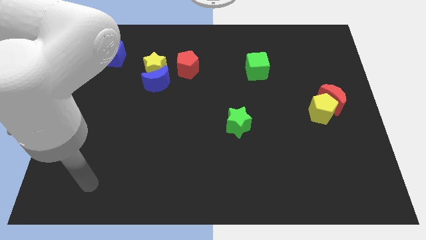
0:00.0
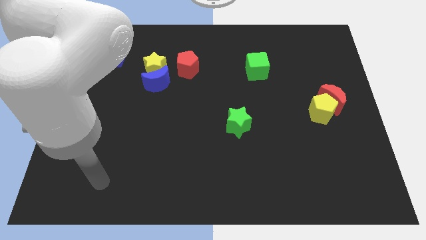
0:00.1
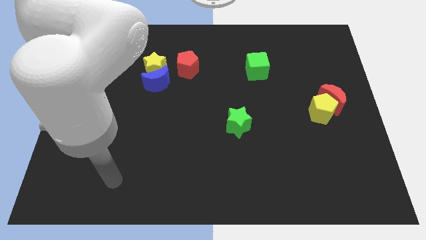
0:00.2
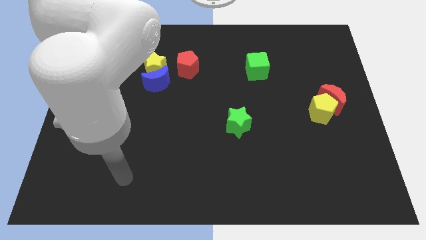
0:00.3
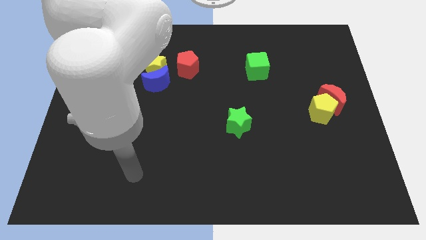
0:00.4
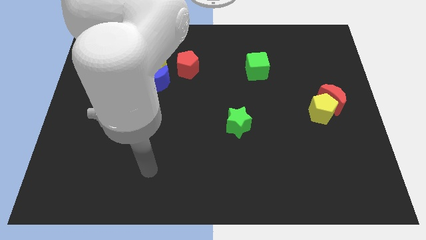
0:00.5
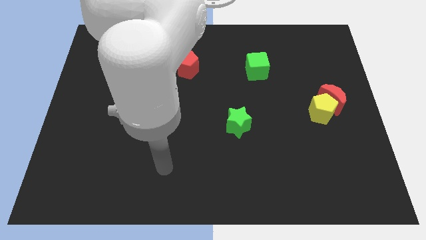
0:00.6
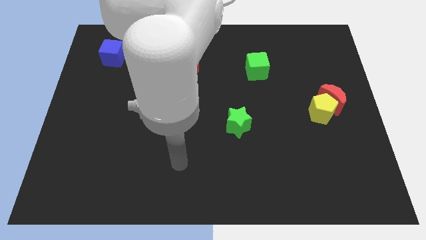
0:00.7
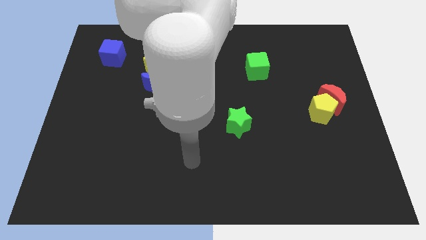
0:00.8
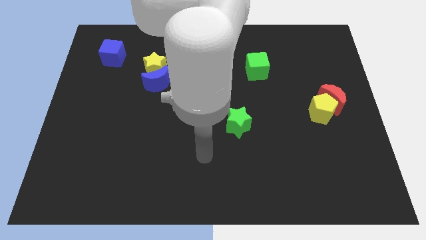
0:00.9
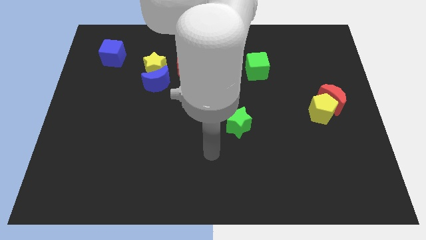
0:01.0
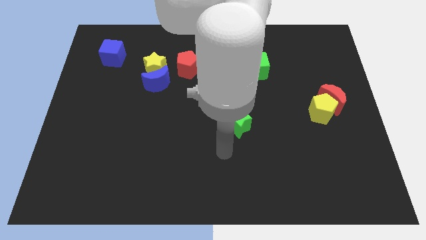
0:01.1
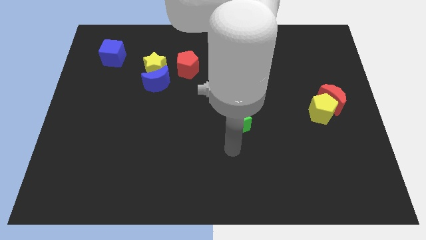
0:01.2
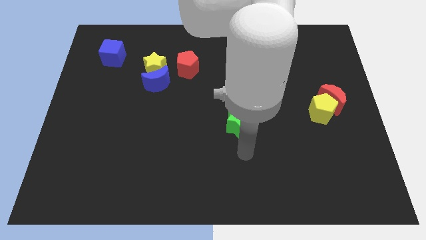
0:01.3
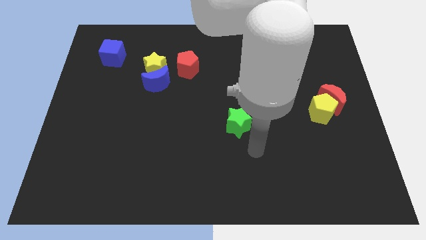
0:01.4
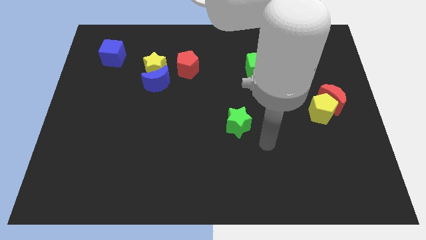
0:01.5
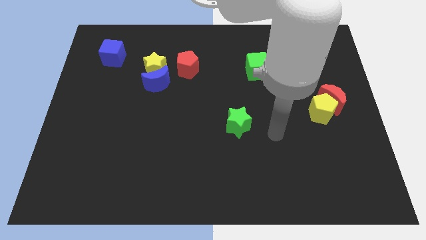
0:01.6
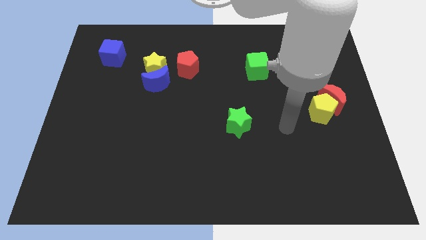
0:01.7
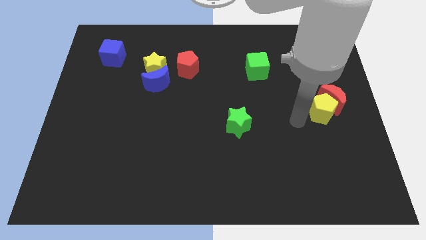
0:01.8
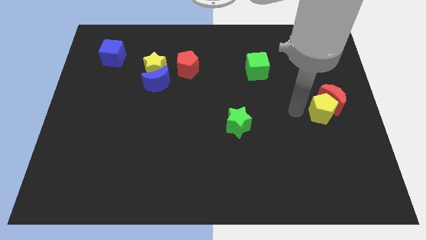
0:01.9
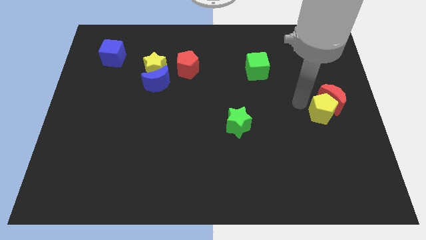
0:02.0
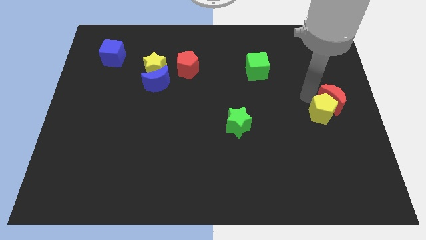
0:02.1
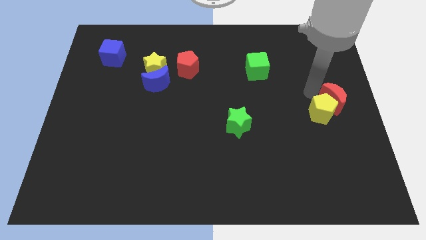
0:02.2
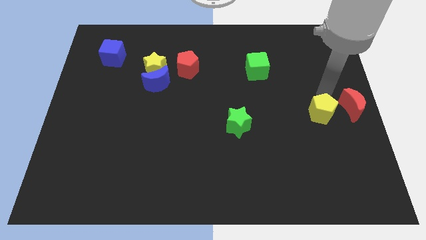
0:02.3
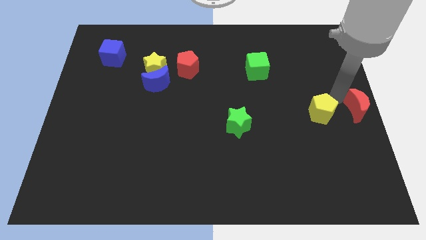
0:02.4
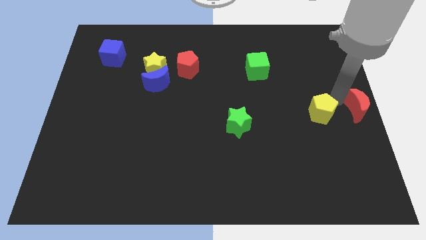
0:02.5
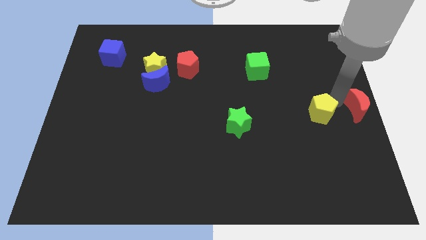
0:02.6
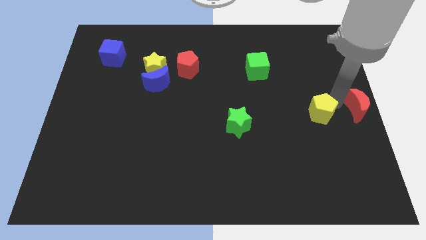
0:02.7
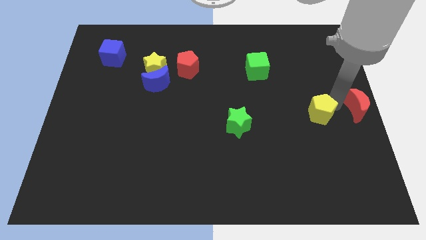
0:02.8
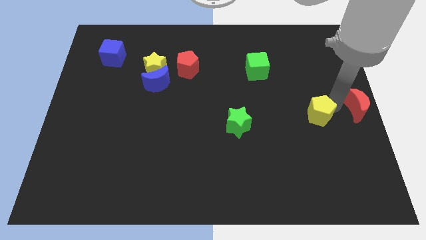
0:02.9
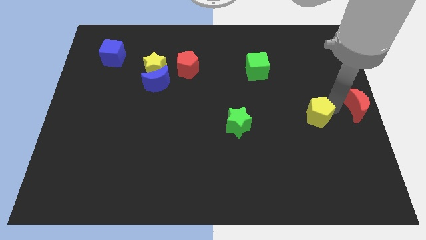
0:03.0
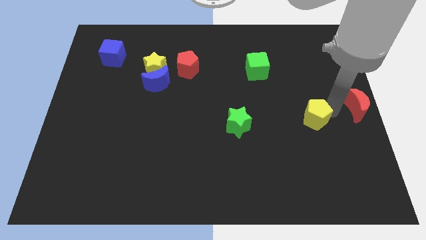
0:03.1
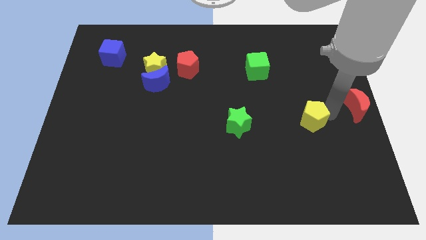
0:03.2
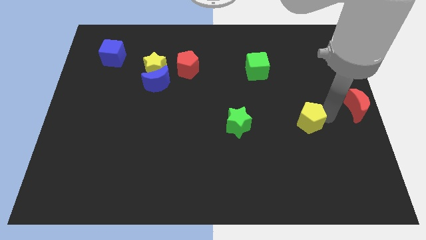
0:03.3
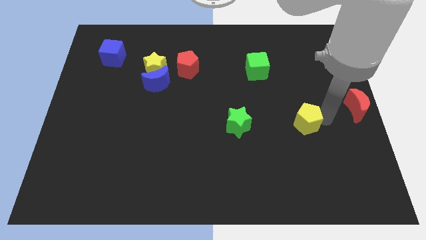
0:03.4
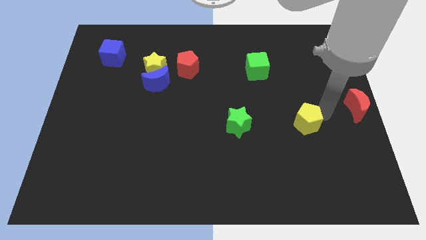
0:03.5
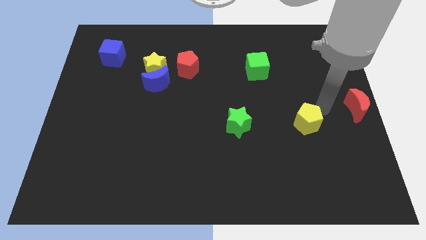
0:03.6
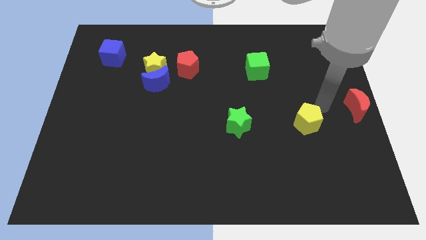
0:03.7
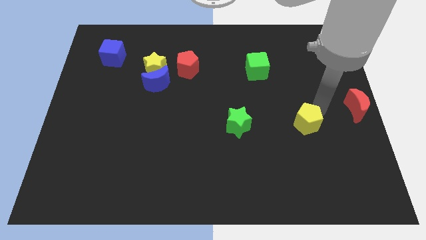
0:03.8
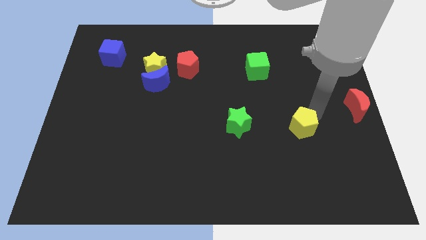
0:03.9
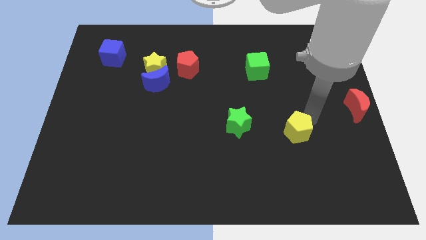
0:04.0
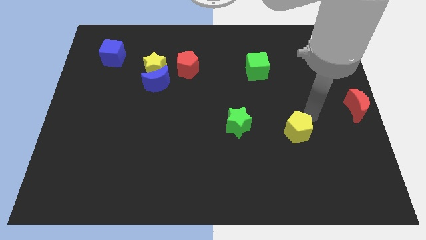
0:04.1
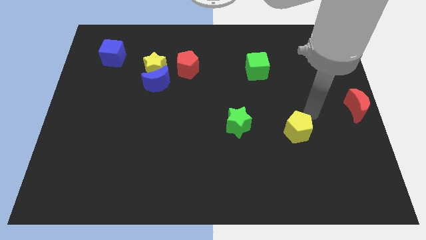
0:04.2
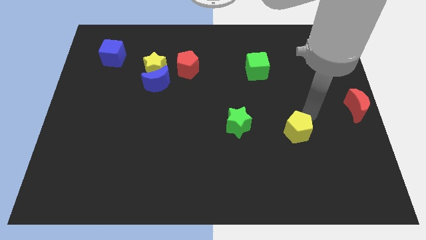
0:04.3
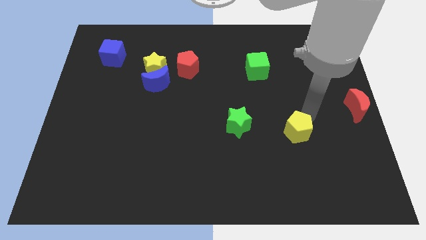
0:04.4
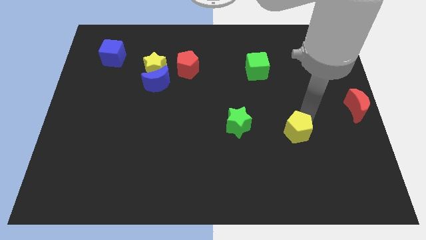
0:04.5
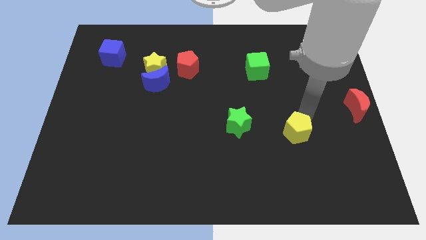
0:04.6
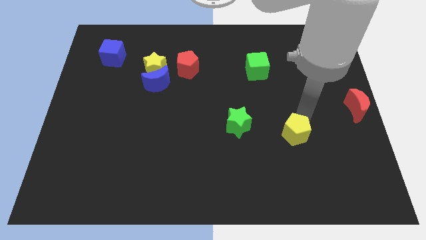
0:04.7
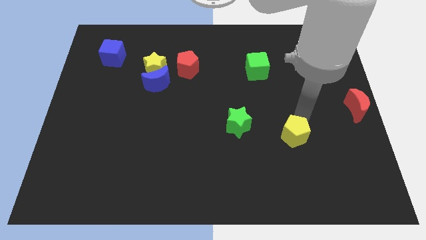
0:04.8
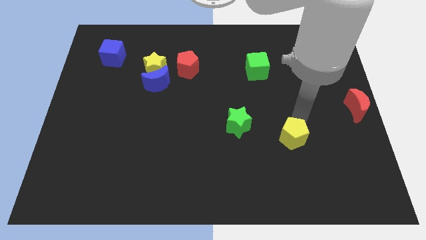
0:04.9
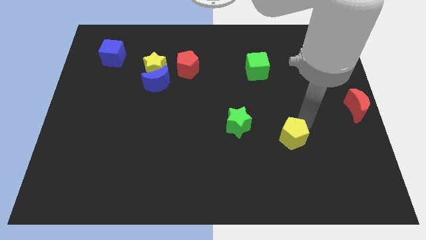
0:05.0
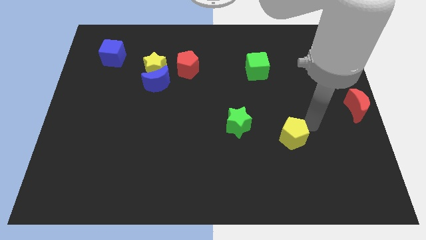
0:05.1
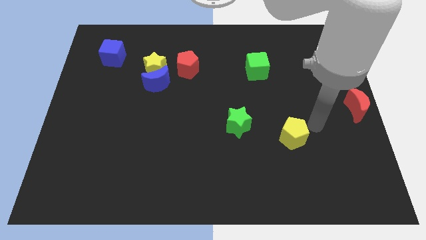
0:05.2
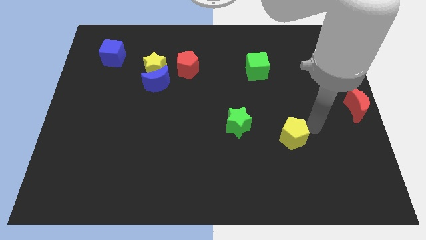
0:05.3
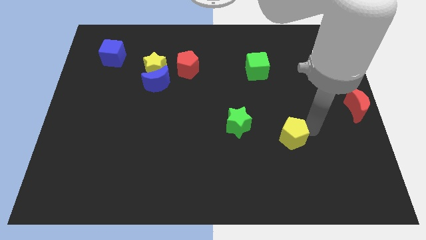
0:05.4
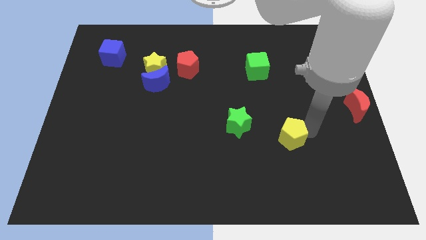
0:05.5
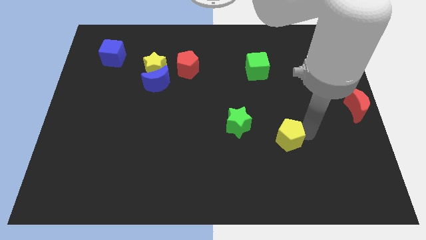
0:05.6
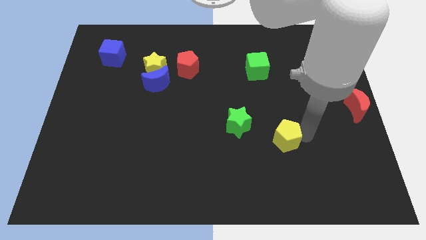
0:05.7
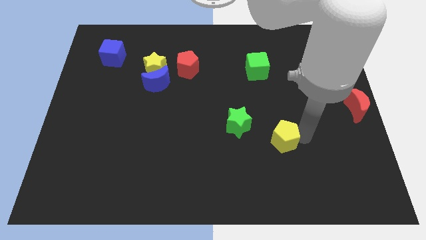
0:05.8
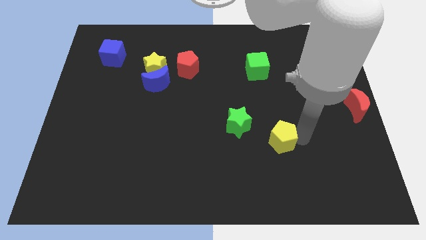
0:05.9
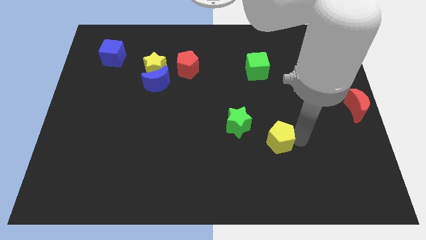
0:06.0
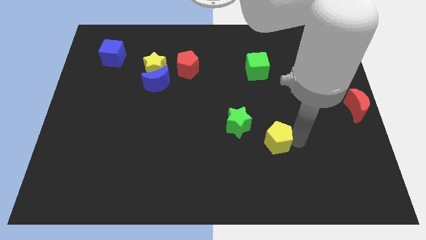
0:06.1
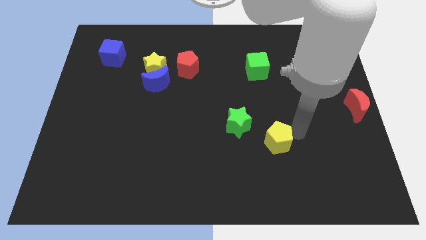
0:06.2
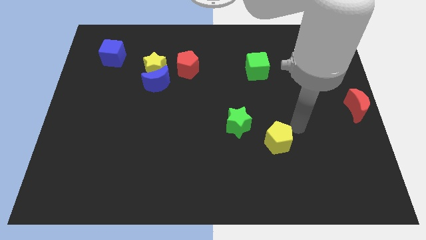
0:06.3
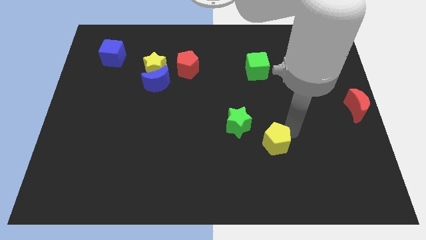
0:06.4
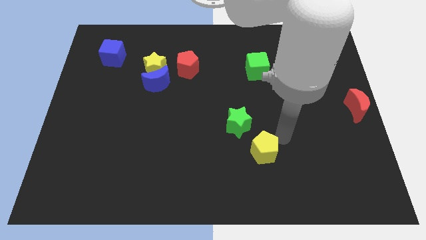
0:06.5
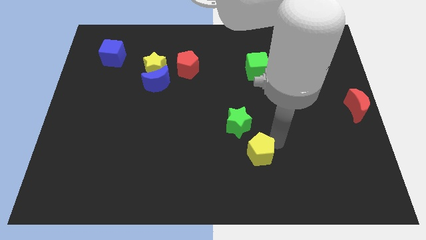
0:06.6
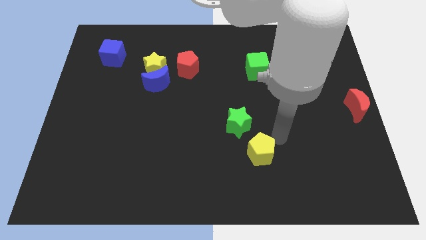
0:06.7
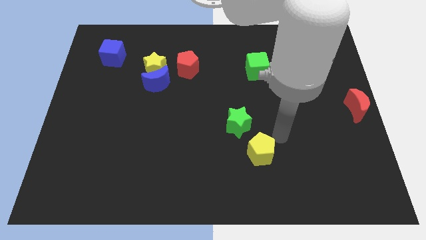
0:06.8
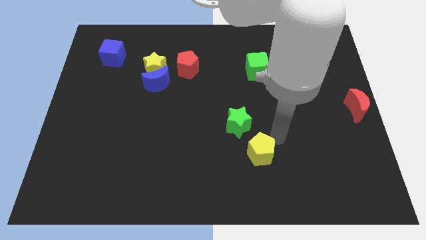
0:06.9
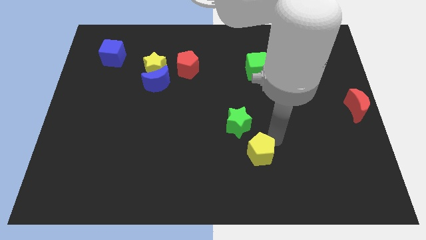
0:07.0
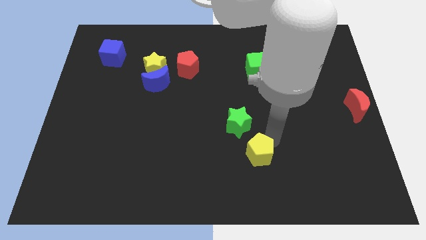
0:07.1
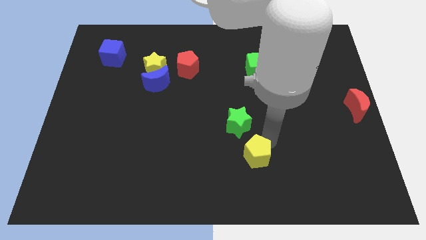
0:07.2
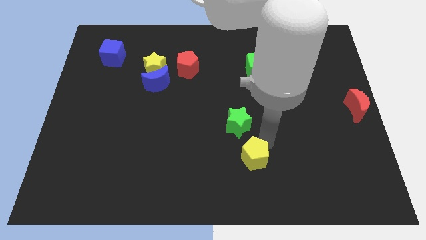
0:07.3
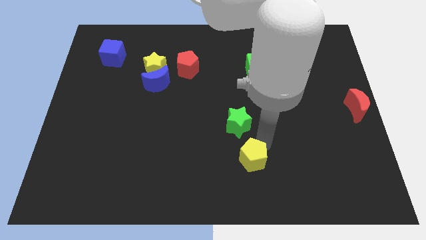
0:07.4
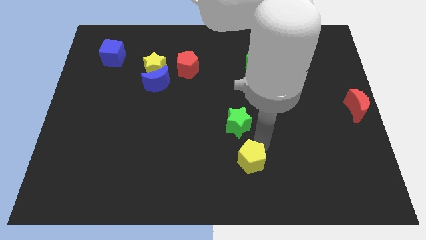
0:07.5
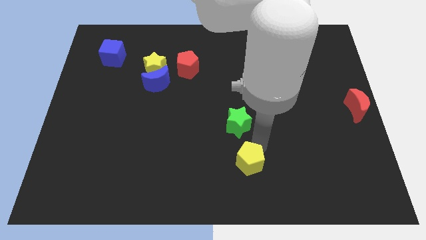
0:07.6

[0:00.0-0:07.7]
slide the yellow pentagon to the bottom
